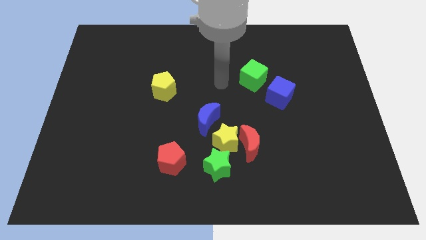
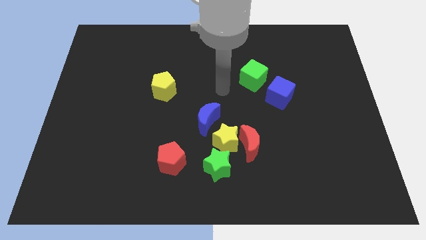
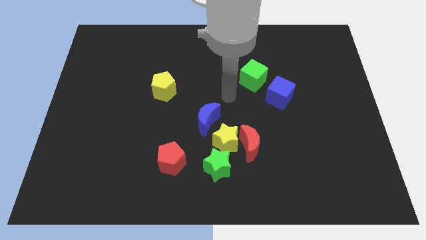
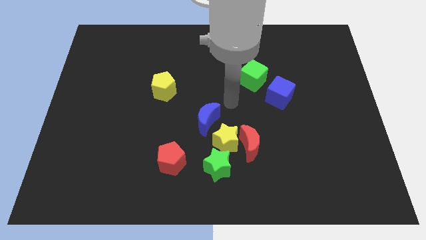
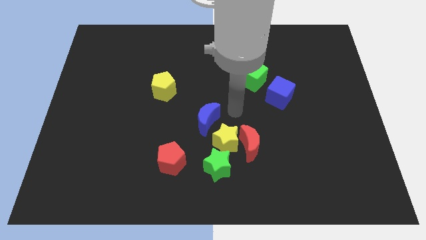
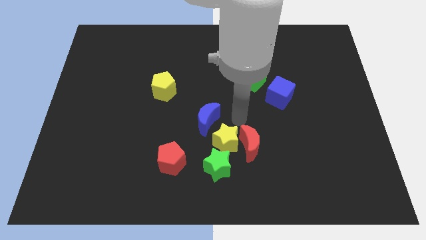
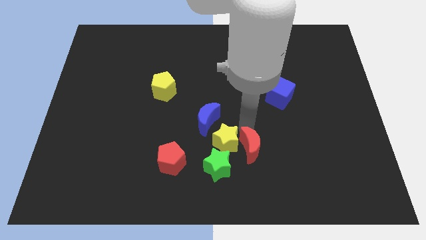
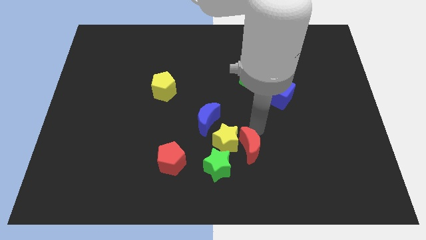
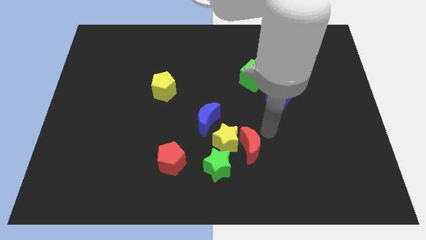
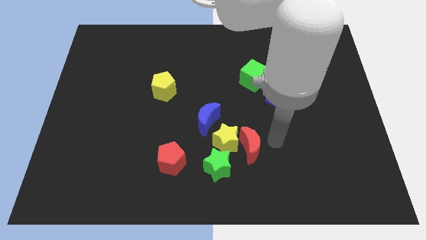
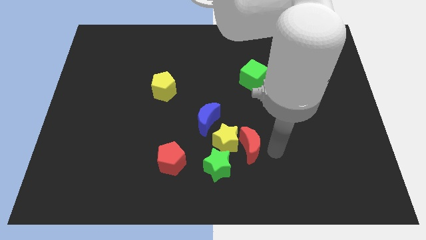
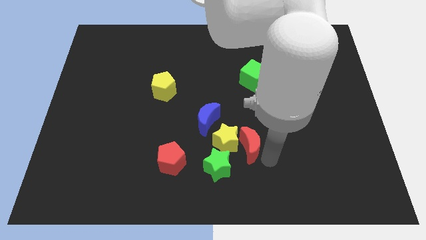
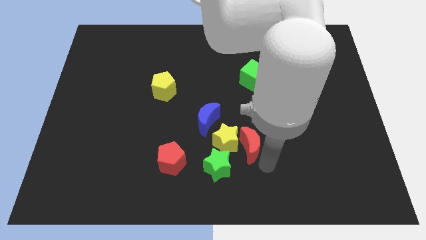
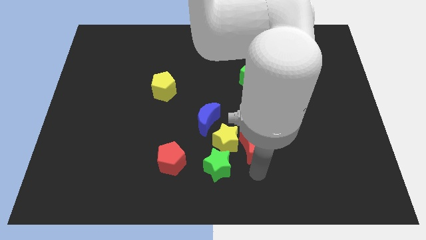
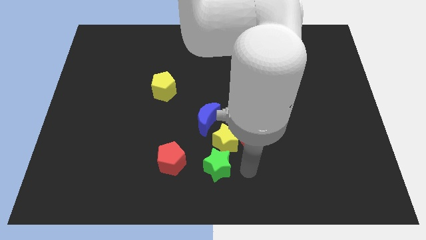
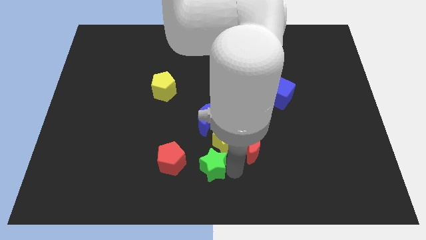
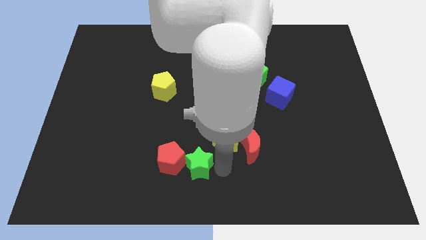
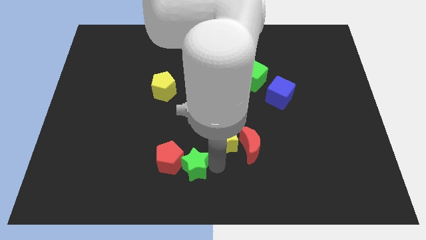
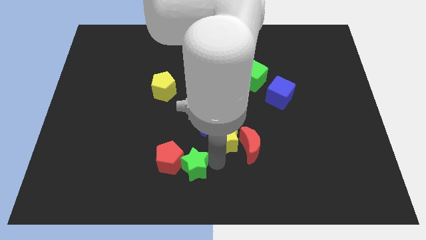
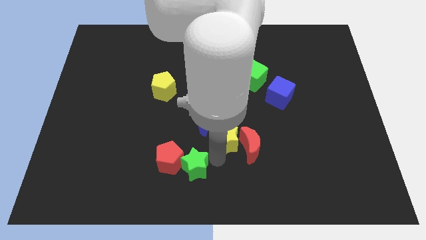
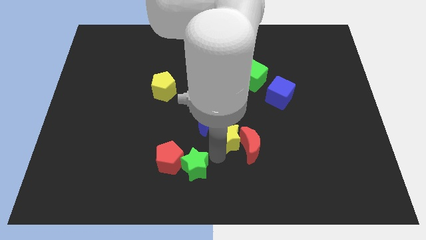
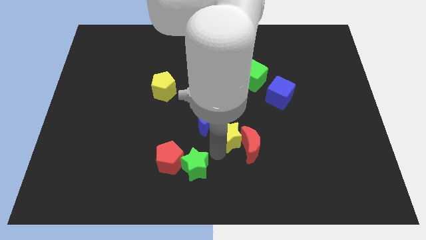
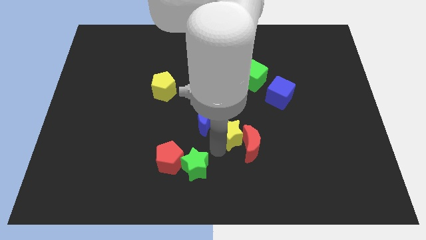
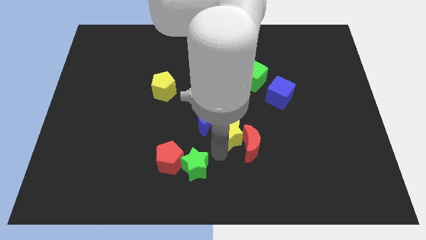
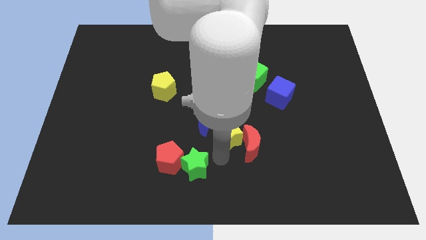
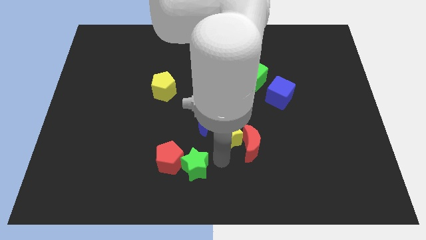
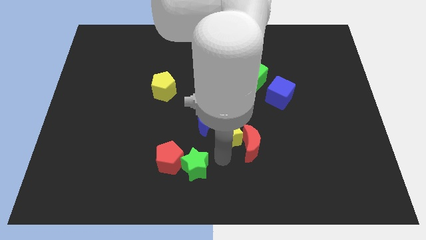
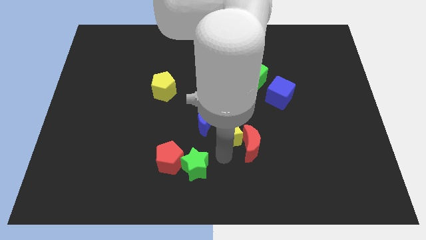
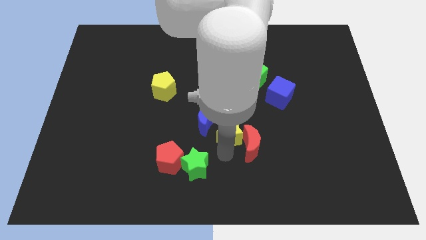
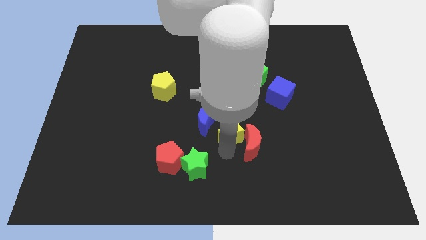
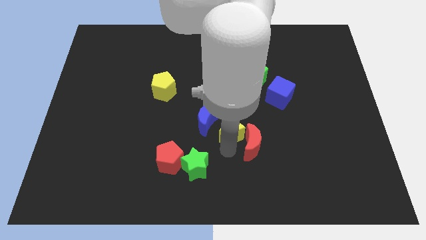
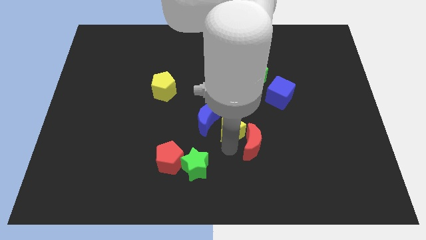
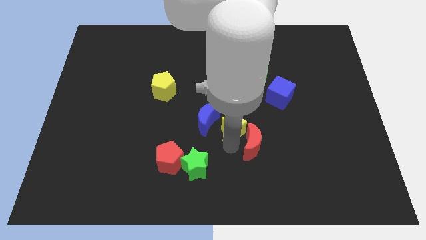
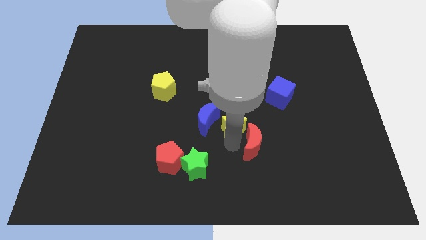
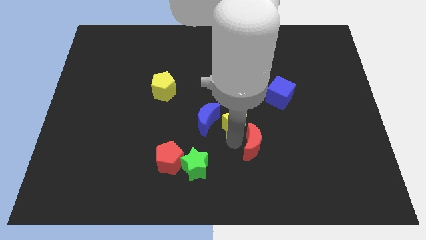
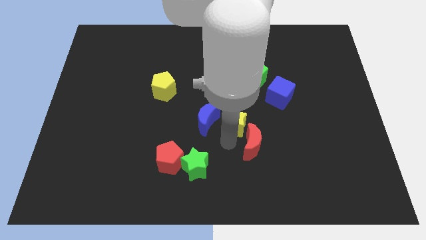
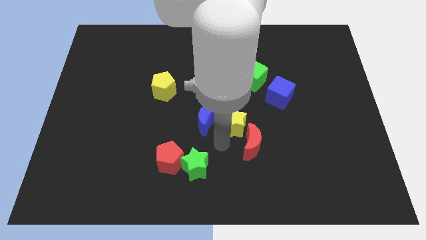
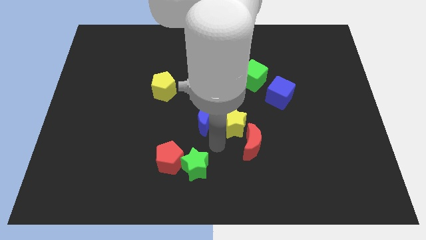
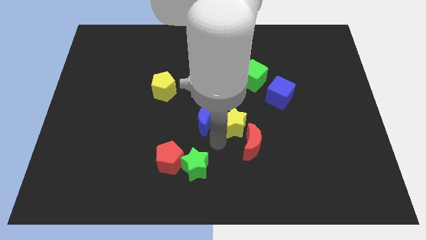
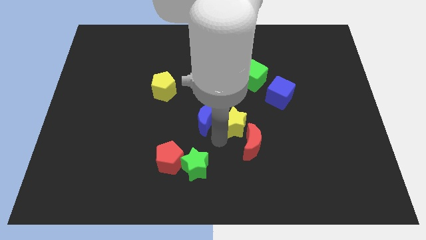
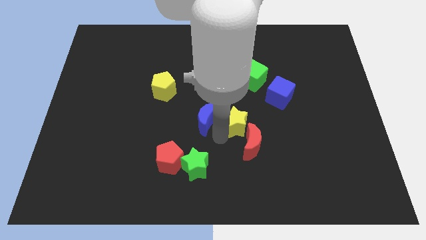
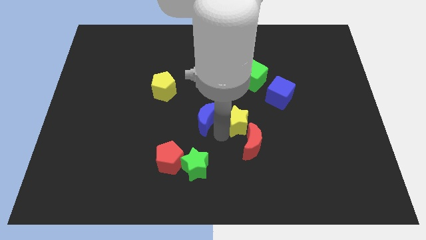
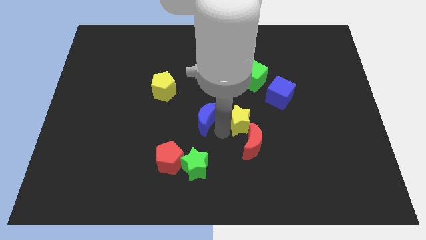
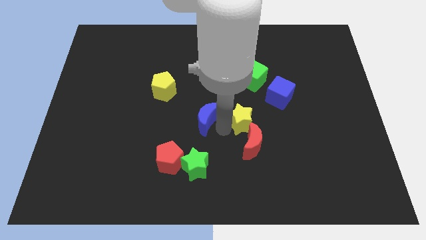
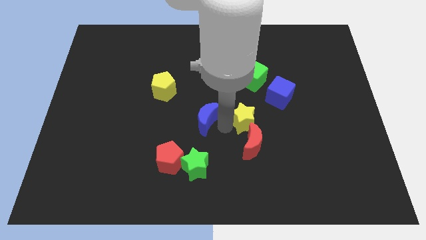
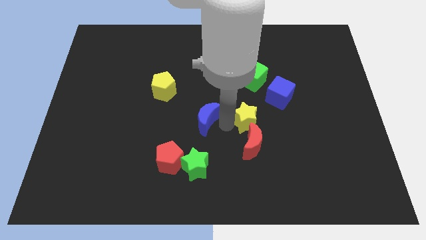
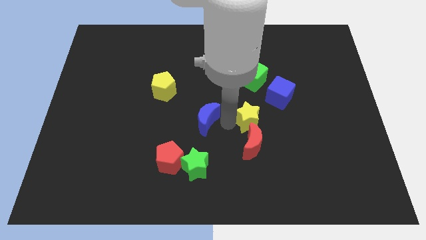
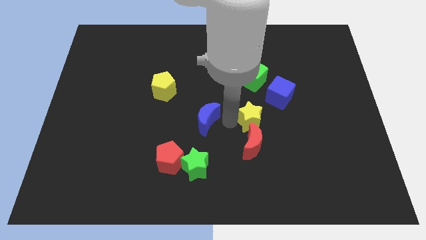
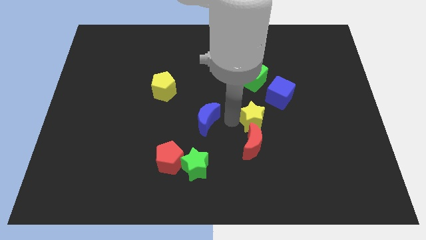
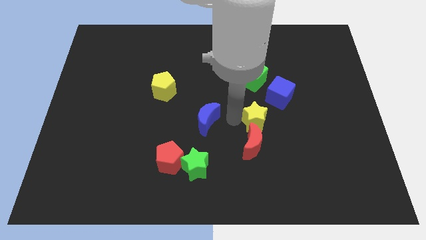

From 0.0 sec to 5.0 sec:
pull the yellow star apart from the red moon, green star, and blue moon

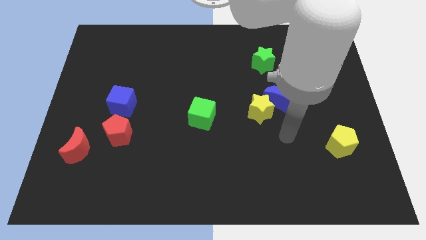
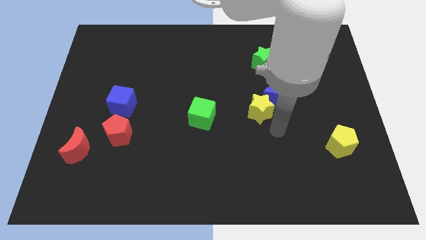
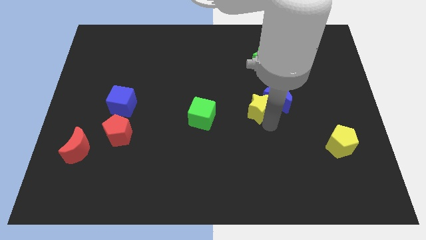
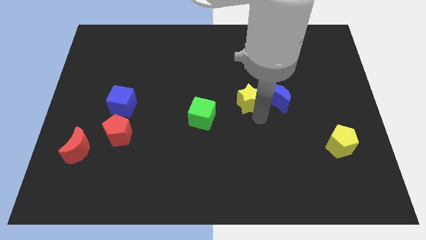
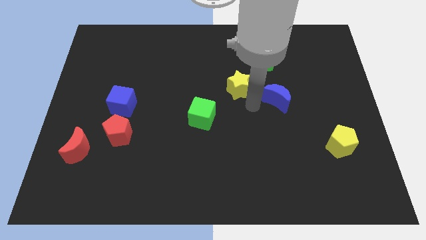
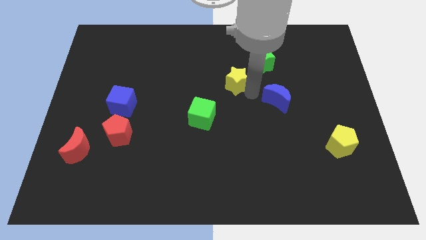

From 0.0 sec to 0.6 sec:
pull the blue moon apart from the yellow star

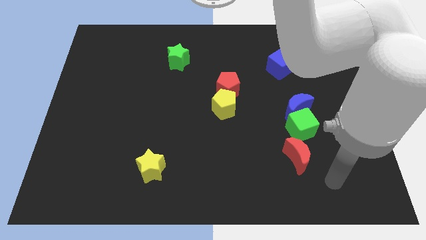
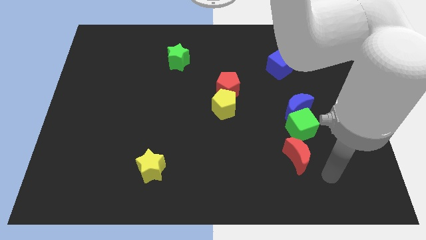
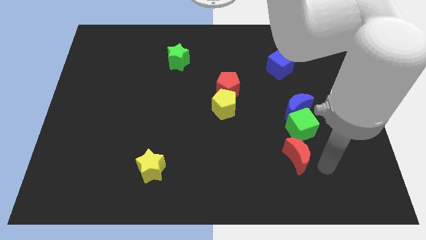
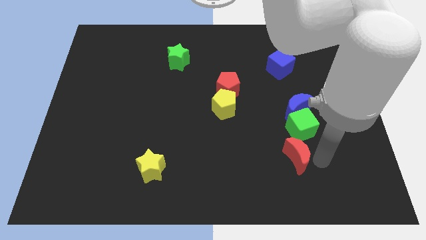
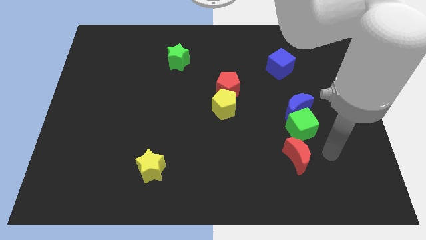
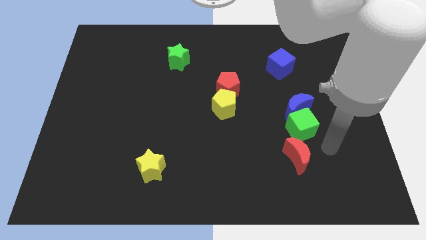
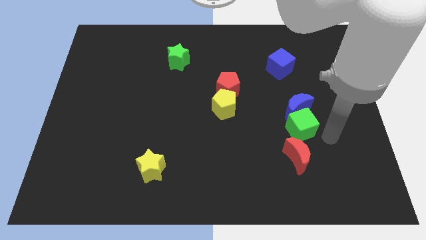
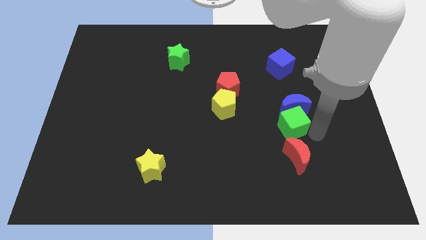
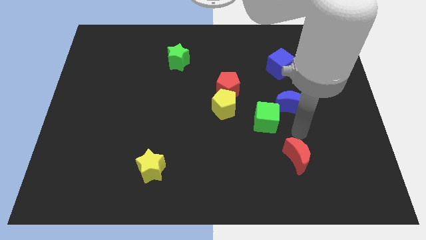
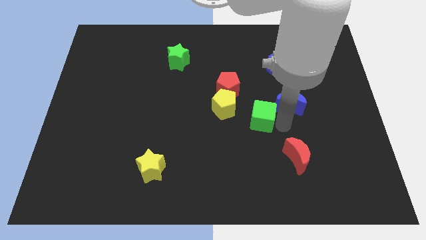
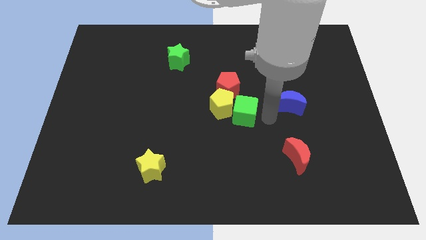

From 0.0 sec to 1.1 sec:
move the blue moon away from the green cube

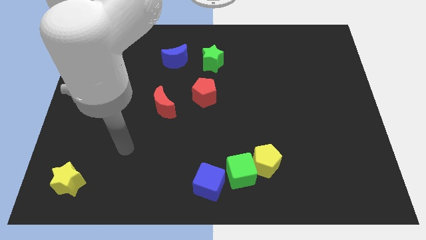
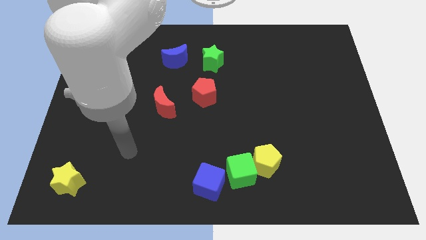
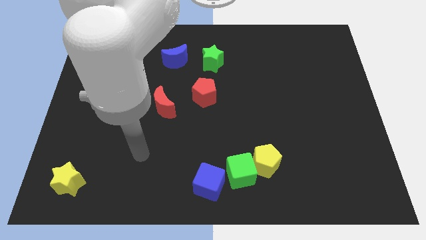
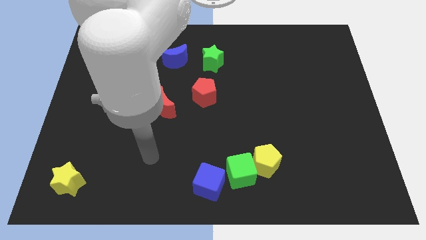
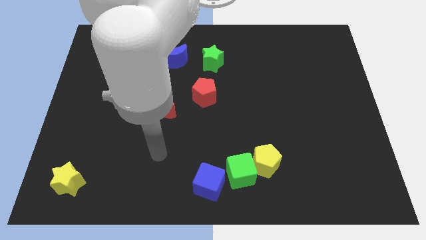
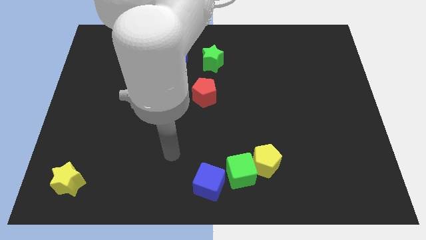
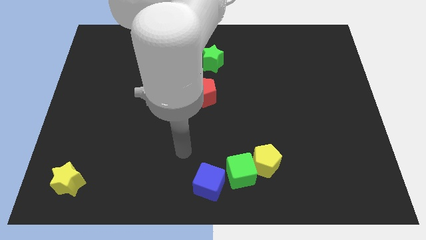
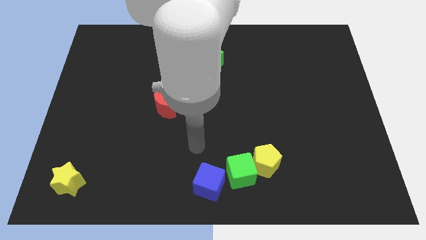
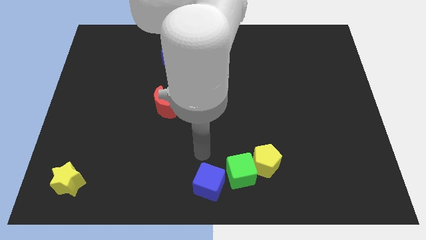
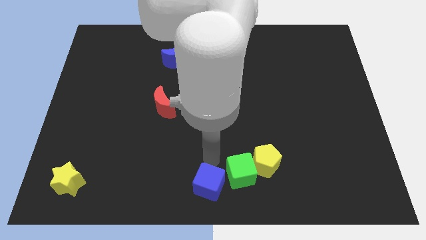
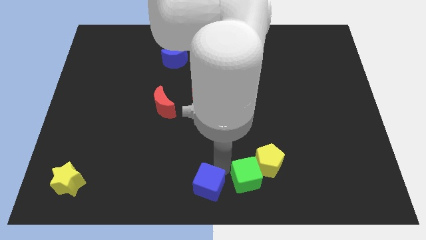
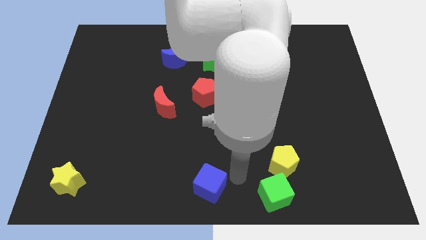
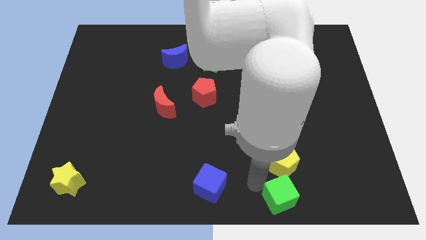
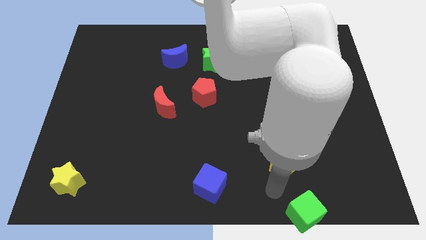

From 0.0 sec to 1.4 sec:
pull the yellow pentagon apart from the green cube

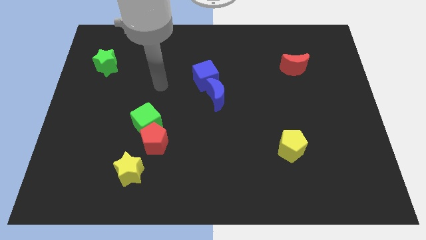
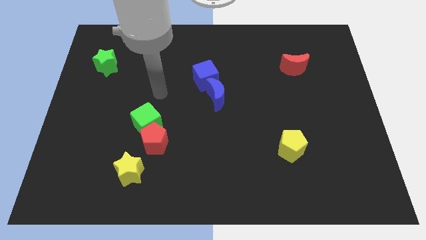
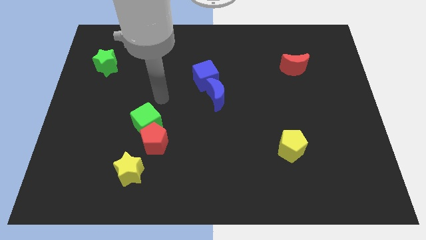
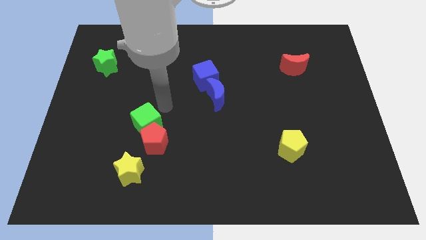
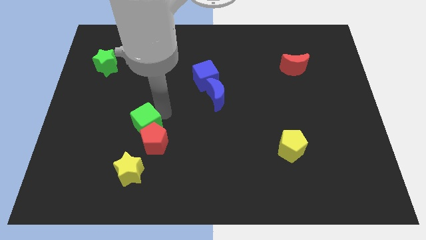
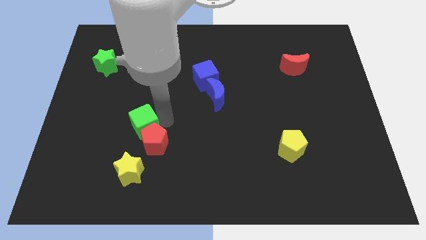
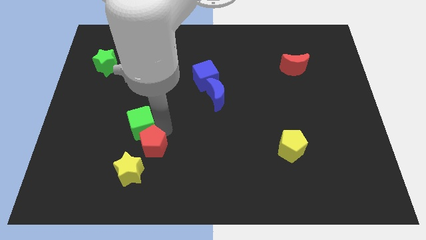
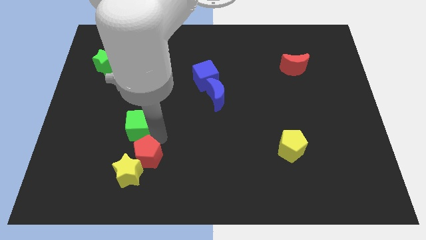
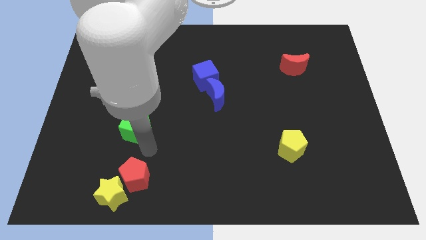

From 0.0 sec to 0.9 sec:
move the green cube away from the red pentagon

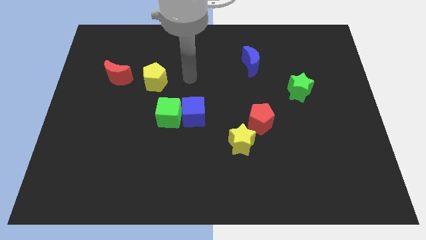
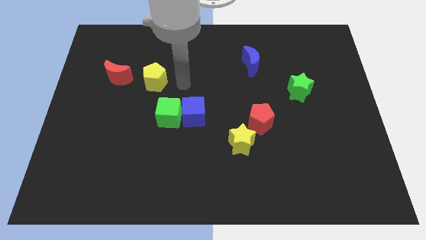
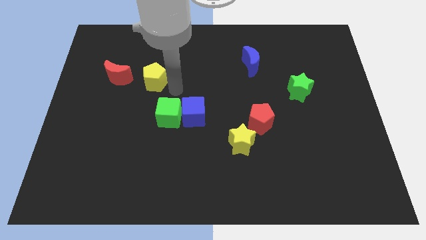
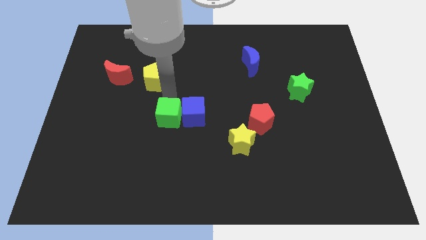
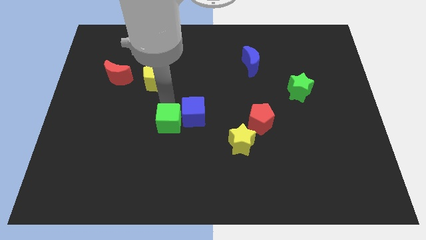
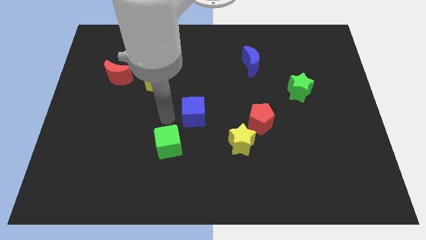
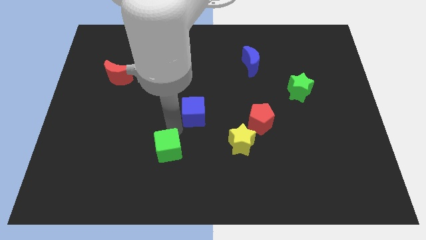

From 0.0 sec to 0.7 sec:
separate the blue cube from the green cube
